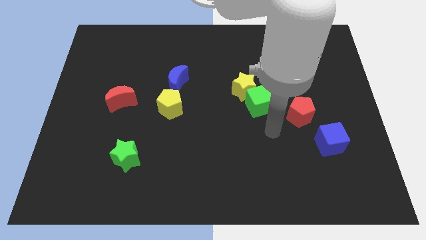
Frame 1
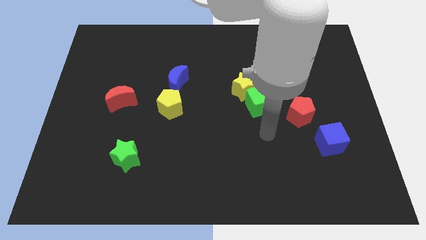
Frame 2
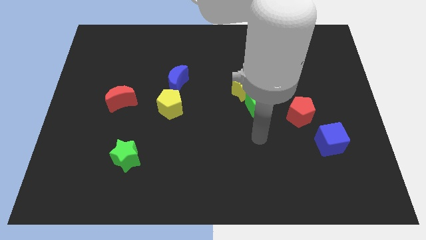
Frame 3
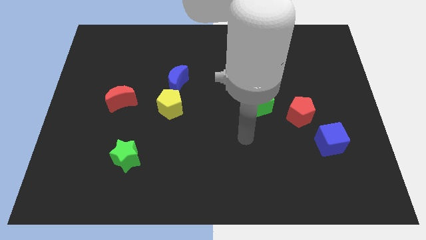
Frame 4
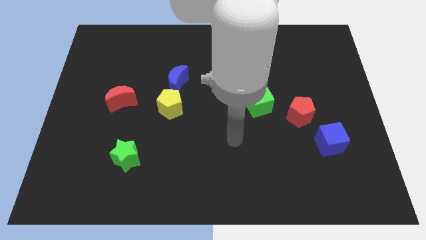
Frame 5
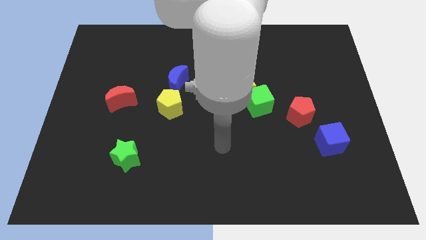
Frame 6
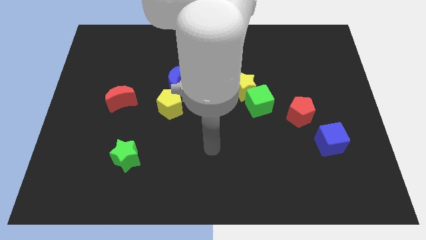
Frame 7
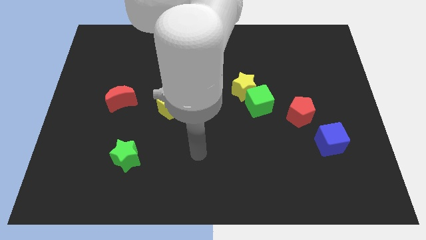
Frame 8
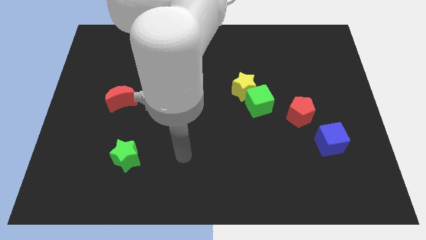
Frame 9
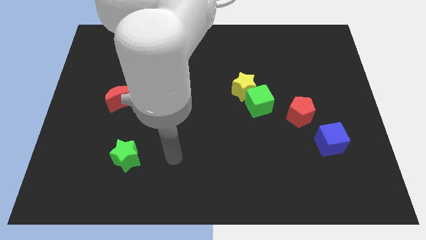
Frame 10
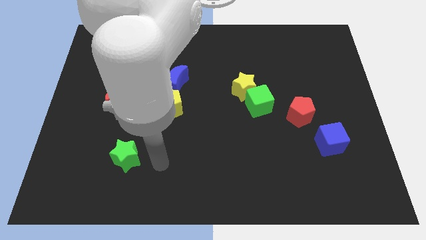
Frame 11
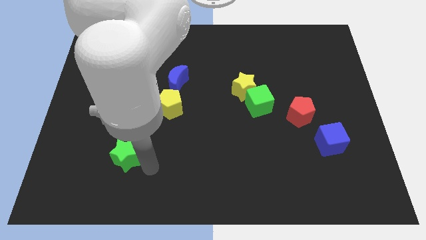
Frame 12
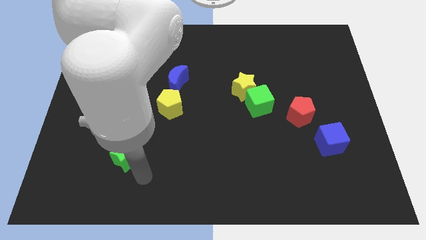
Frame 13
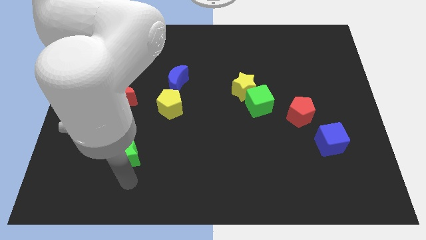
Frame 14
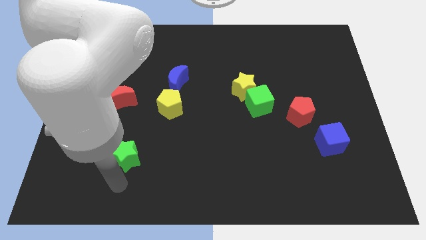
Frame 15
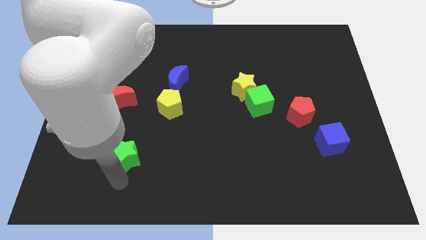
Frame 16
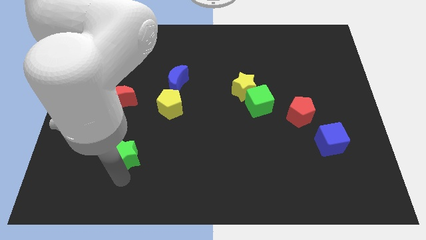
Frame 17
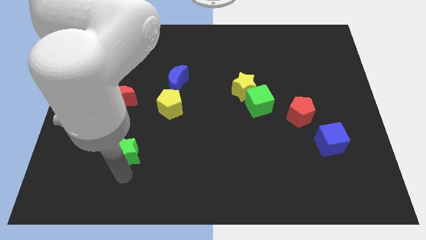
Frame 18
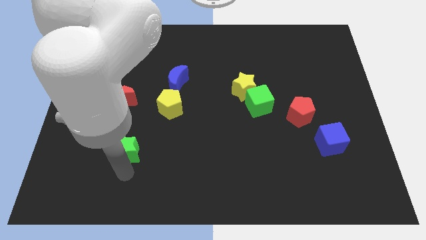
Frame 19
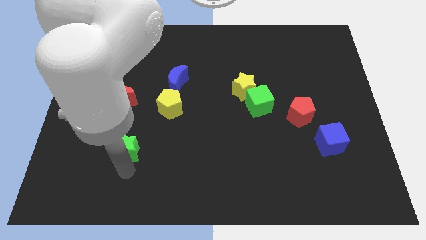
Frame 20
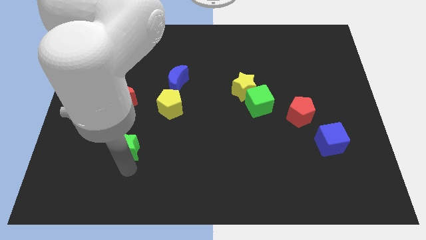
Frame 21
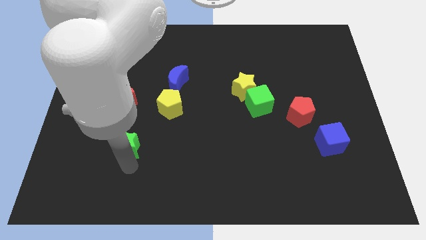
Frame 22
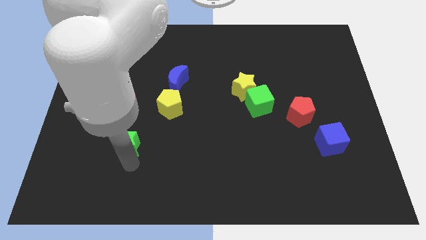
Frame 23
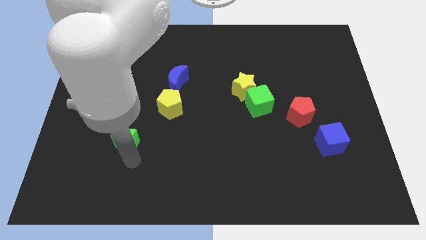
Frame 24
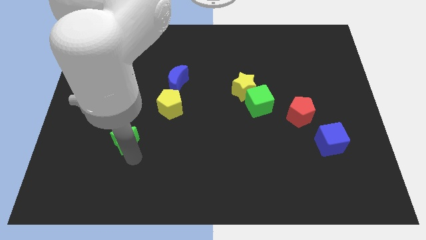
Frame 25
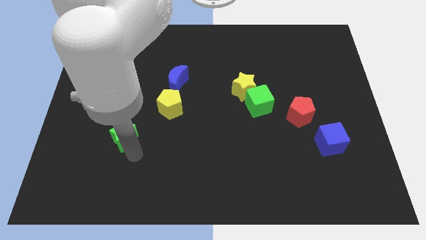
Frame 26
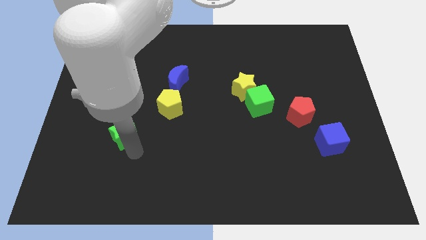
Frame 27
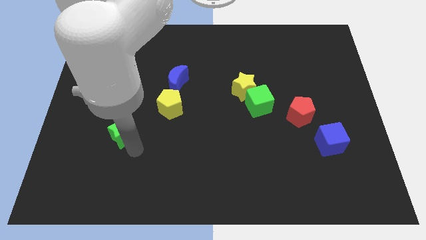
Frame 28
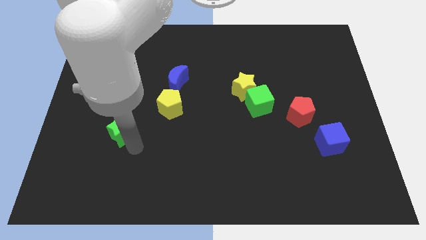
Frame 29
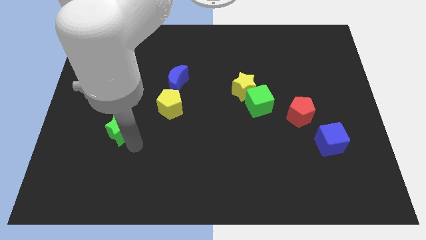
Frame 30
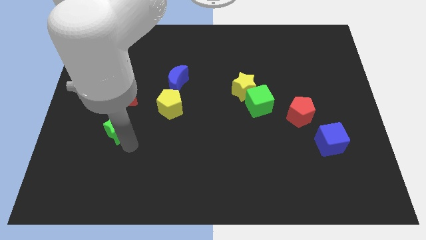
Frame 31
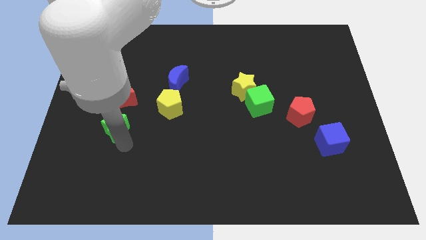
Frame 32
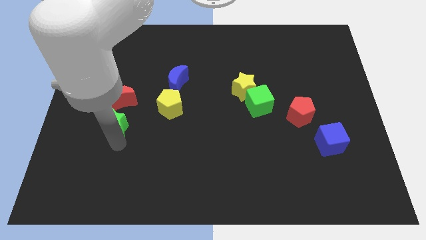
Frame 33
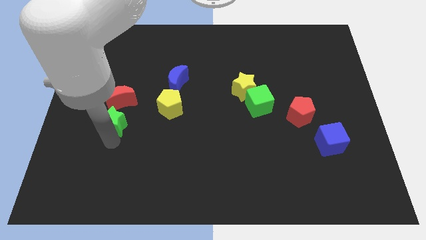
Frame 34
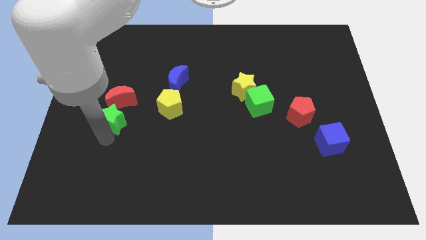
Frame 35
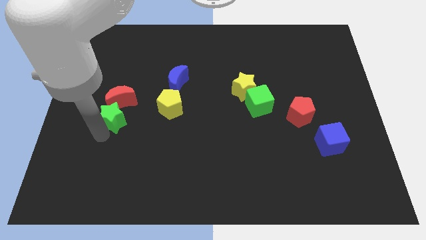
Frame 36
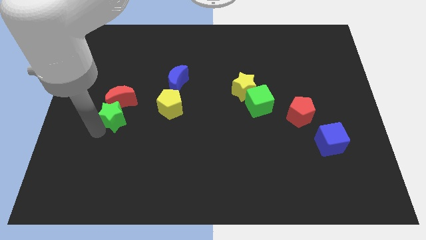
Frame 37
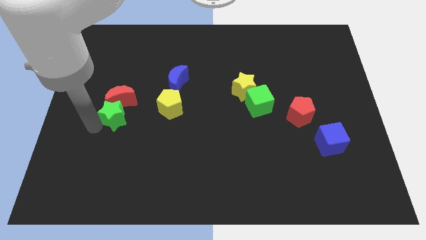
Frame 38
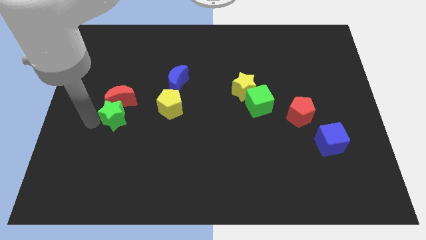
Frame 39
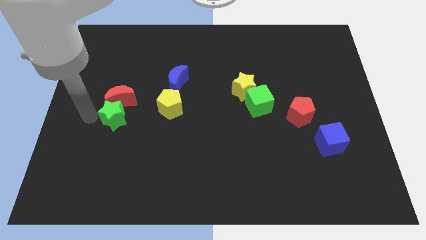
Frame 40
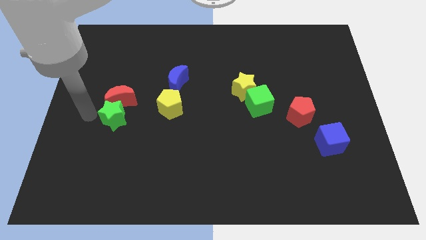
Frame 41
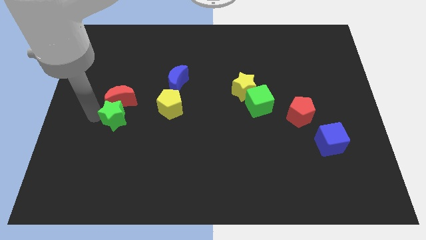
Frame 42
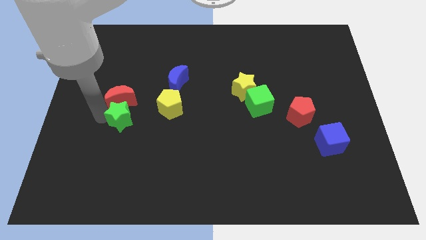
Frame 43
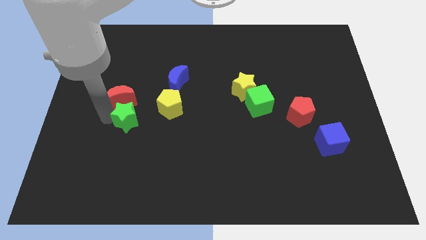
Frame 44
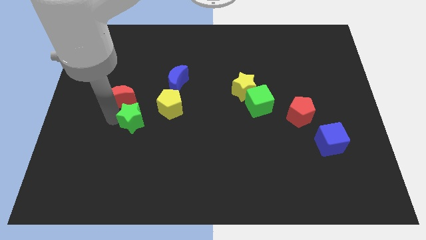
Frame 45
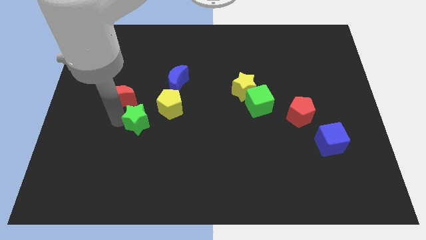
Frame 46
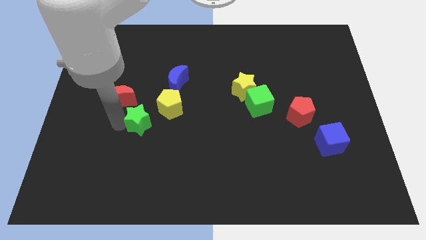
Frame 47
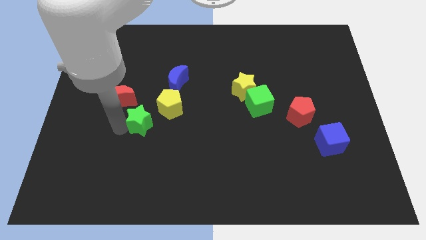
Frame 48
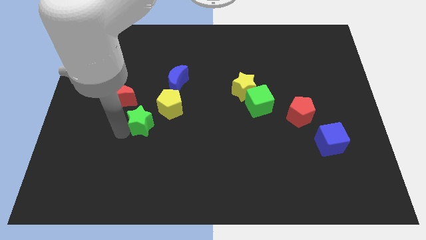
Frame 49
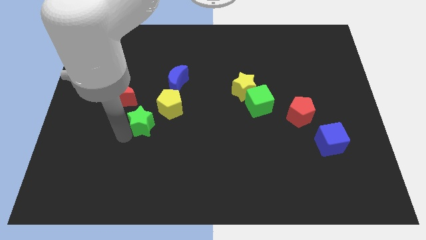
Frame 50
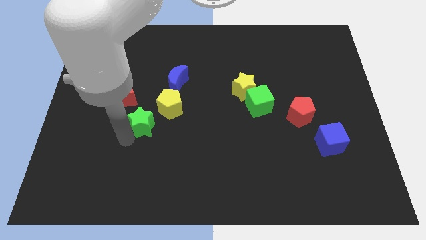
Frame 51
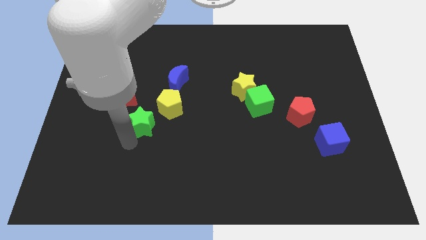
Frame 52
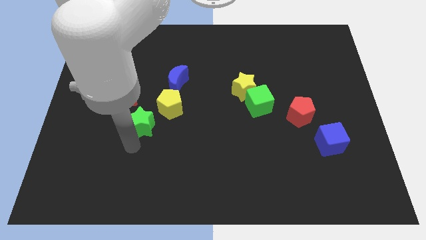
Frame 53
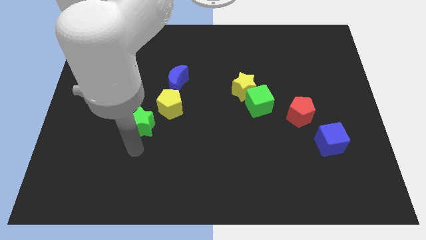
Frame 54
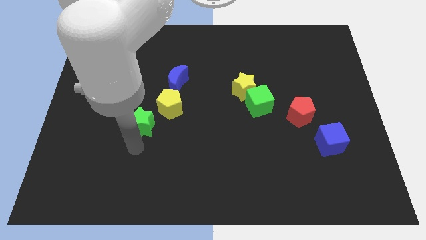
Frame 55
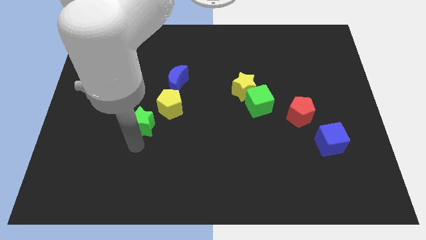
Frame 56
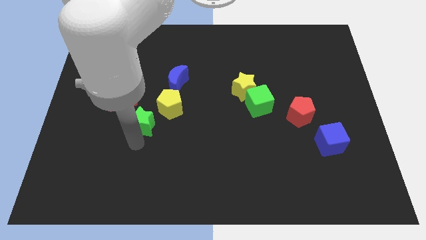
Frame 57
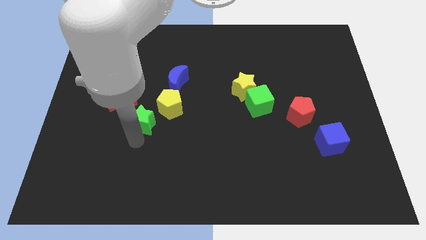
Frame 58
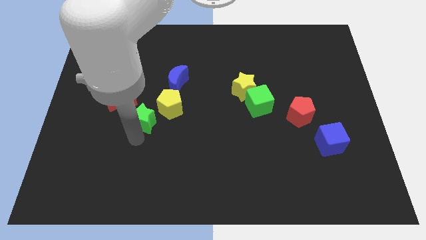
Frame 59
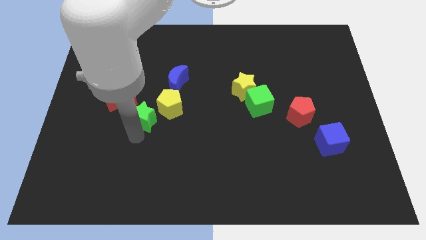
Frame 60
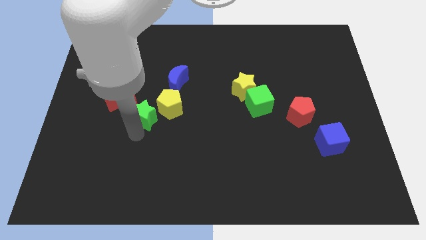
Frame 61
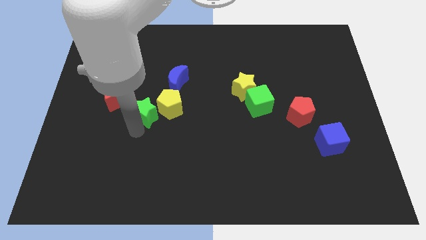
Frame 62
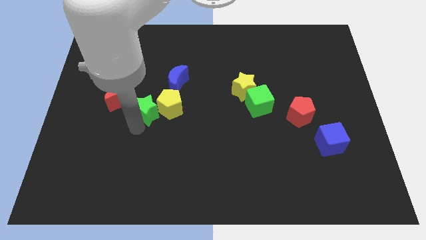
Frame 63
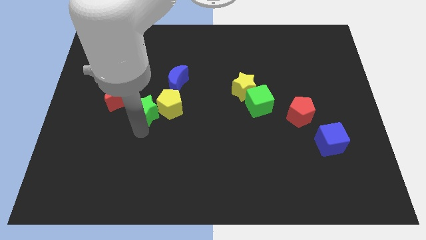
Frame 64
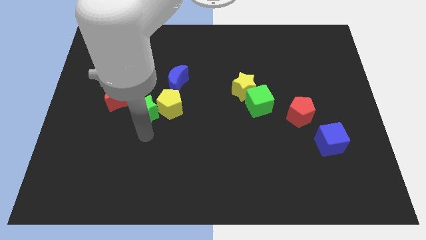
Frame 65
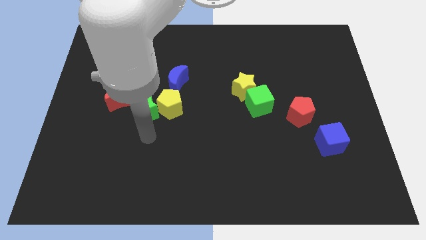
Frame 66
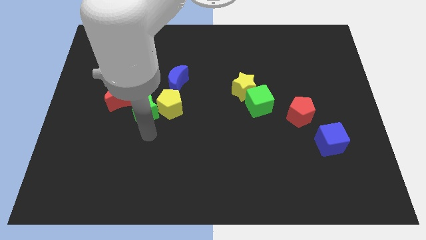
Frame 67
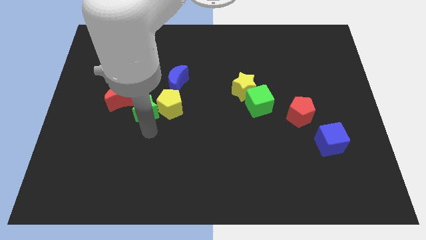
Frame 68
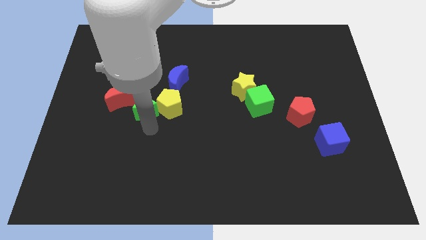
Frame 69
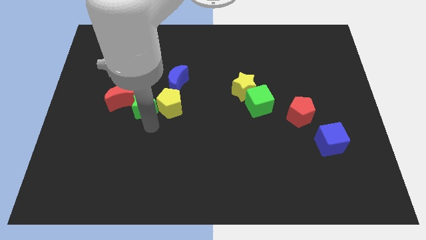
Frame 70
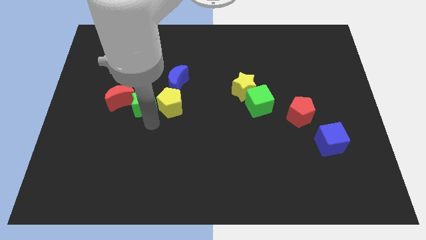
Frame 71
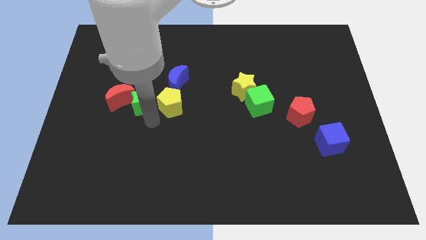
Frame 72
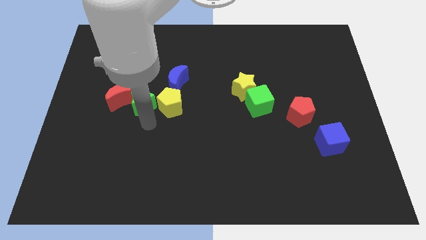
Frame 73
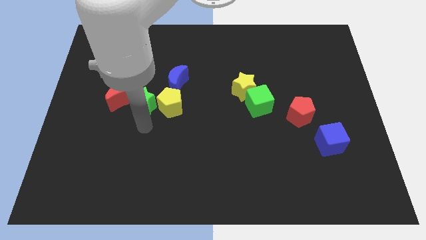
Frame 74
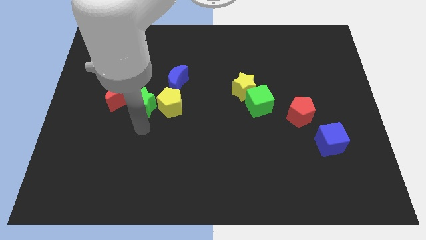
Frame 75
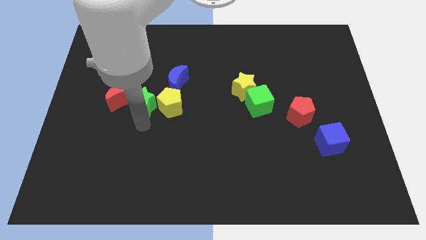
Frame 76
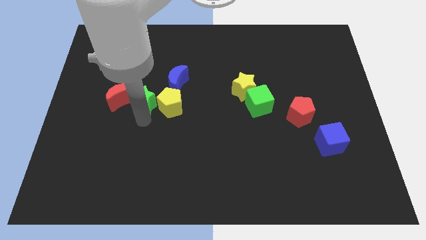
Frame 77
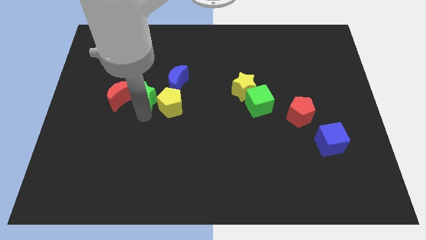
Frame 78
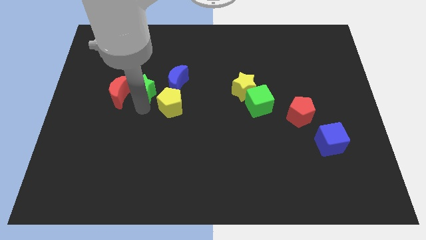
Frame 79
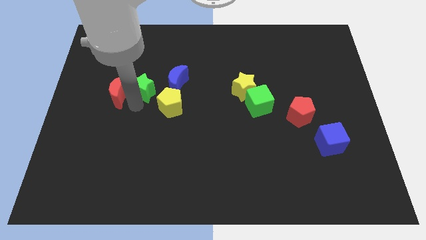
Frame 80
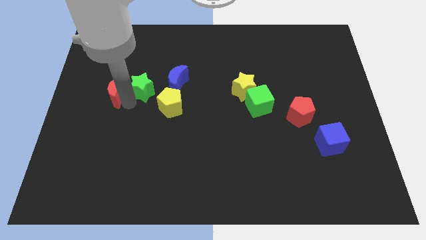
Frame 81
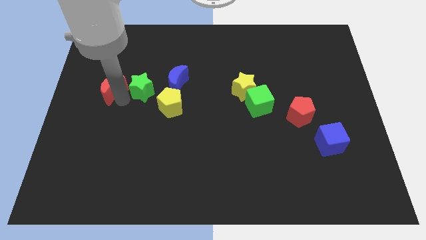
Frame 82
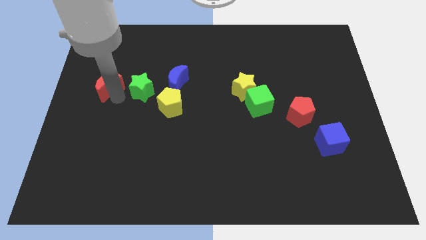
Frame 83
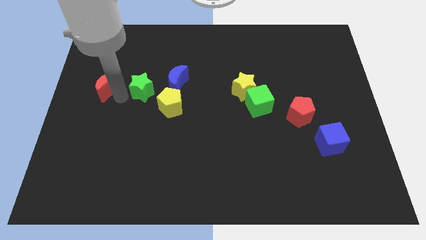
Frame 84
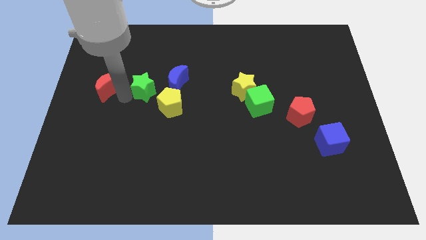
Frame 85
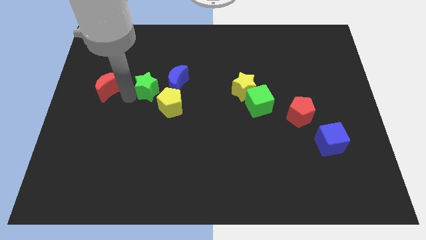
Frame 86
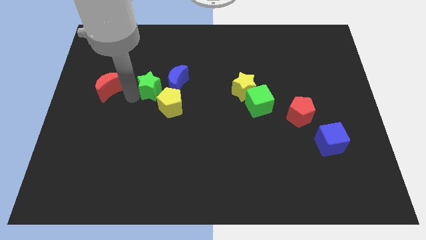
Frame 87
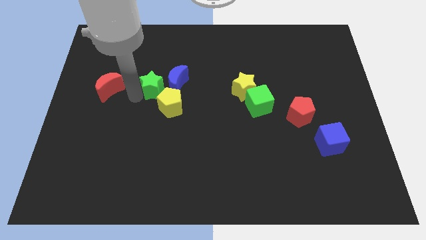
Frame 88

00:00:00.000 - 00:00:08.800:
move the green star to the blue moon
